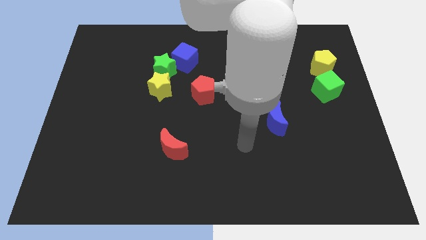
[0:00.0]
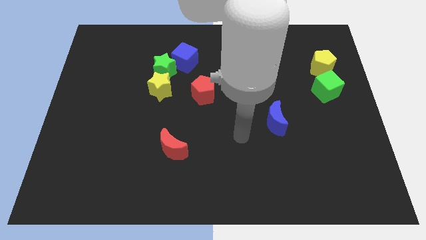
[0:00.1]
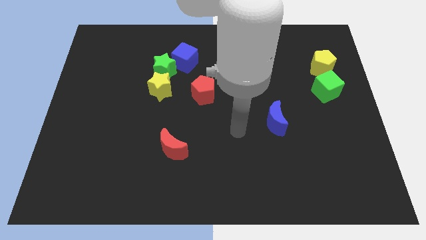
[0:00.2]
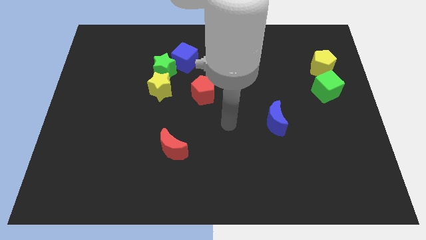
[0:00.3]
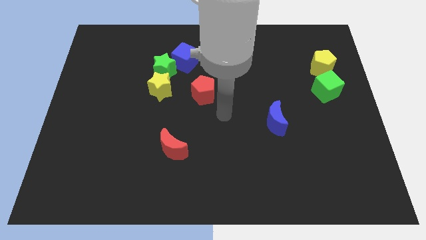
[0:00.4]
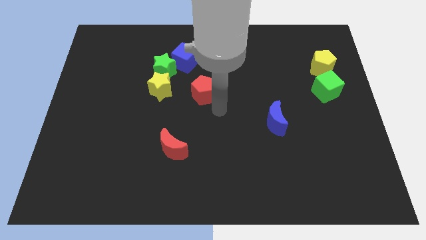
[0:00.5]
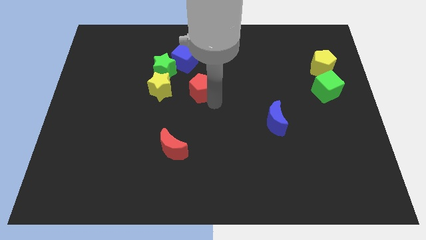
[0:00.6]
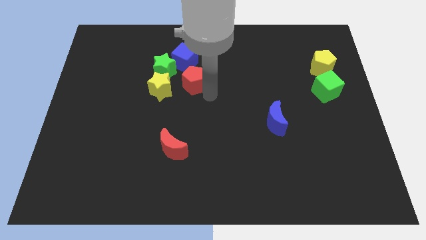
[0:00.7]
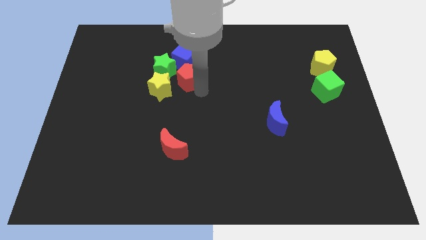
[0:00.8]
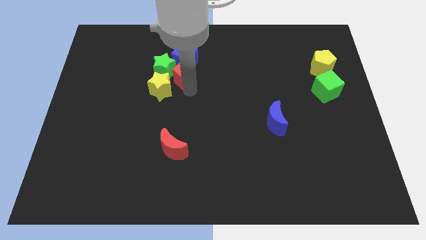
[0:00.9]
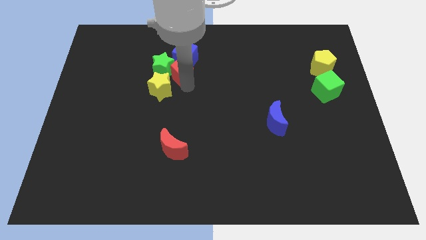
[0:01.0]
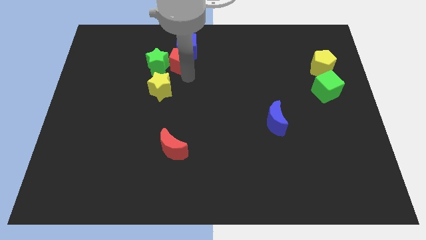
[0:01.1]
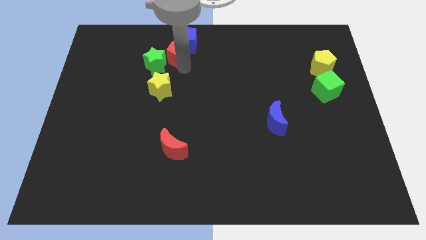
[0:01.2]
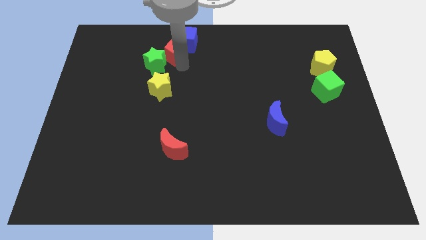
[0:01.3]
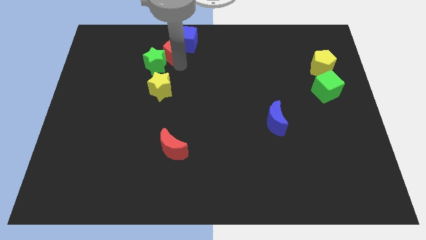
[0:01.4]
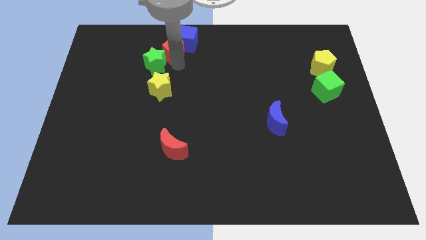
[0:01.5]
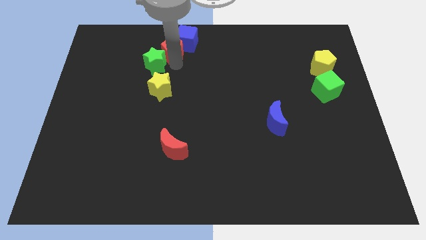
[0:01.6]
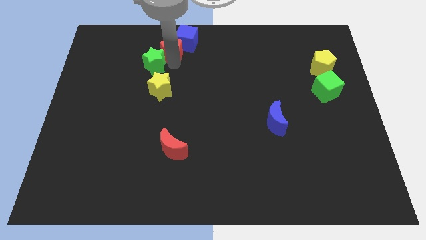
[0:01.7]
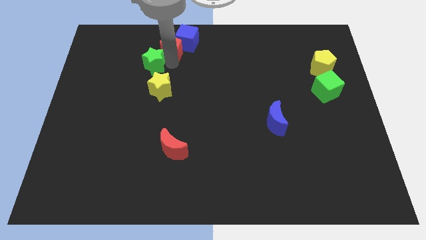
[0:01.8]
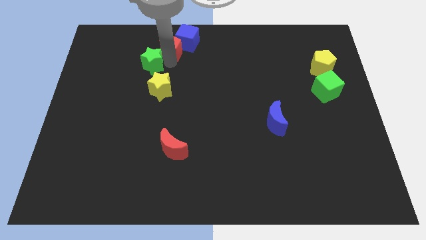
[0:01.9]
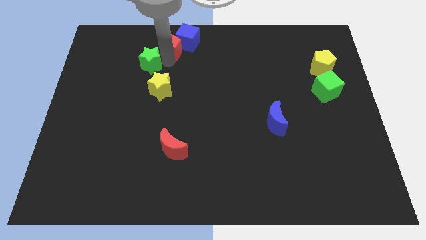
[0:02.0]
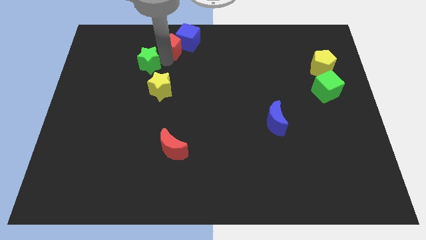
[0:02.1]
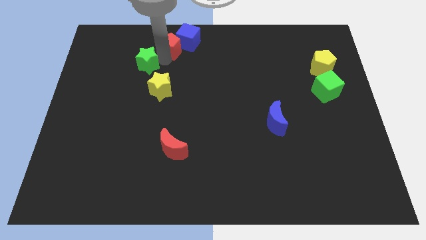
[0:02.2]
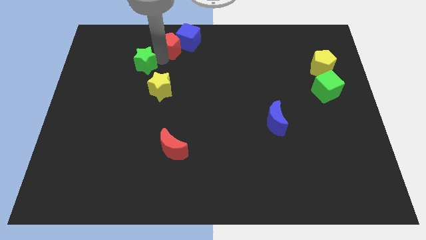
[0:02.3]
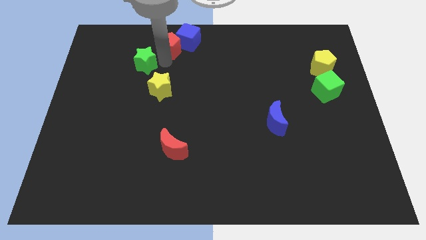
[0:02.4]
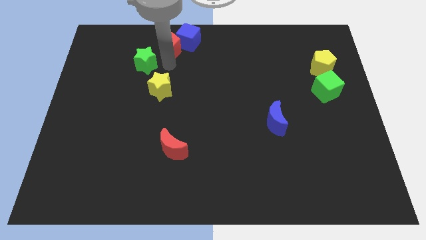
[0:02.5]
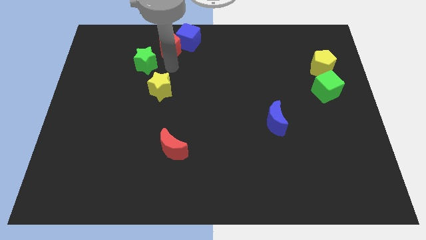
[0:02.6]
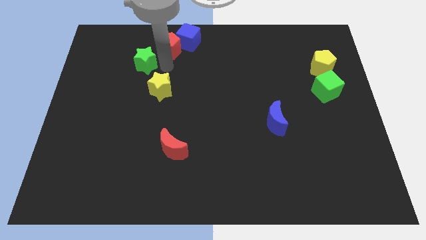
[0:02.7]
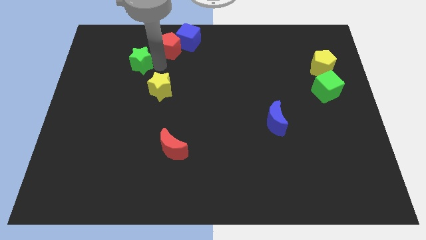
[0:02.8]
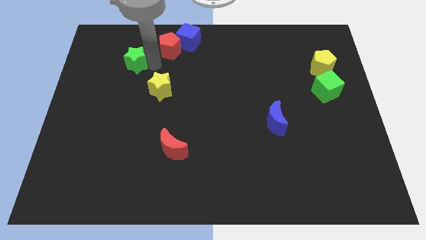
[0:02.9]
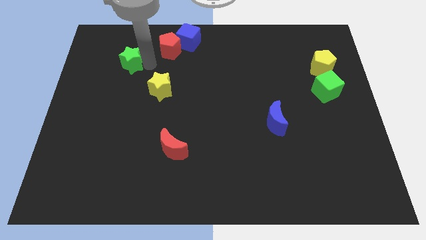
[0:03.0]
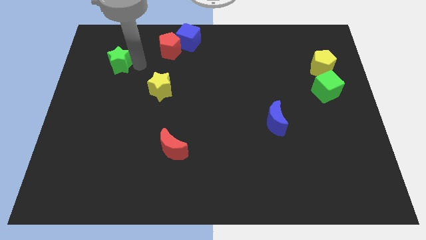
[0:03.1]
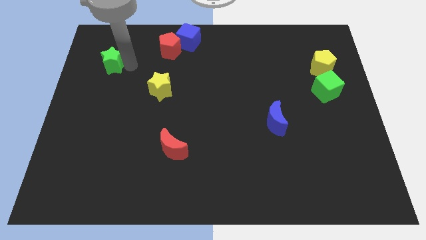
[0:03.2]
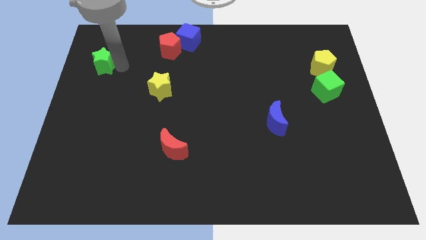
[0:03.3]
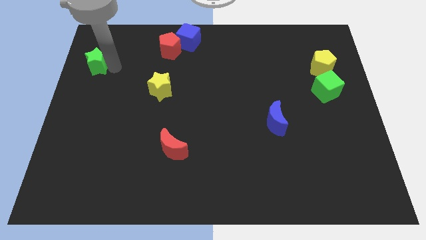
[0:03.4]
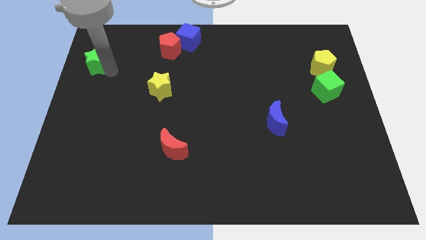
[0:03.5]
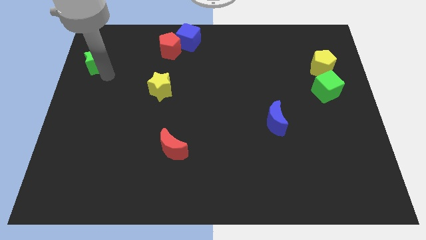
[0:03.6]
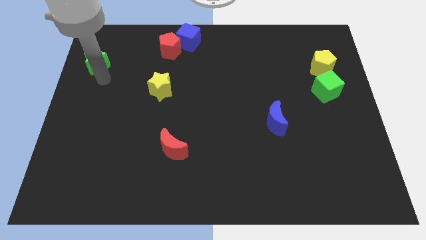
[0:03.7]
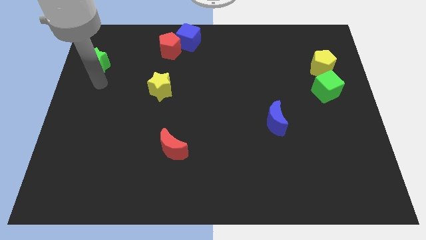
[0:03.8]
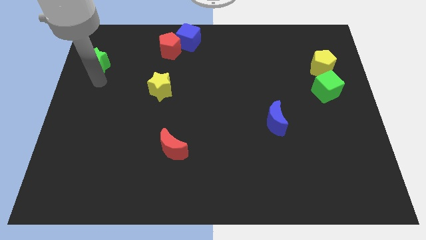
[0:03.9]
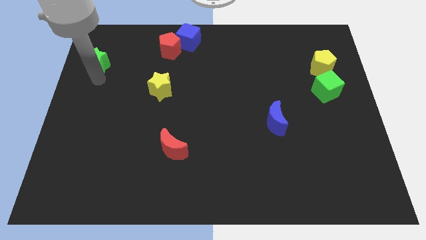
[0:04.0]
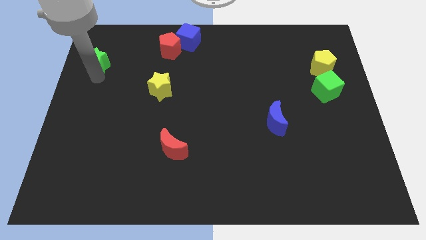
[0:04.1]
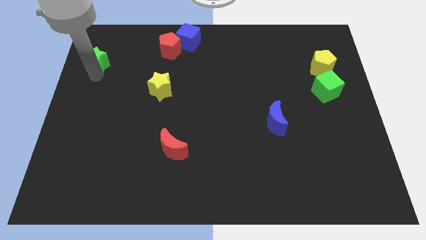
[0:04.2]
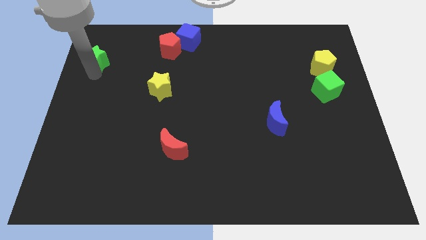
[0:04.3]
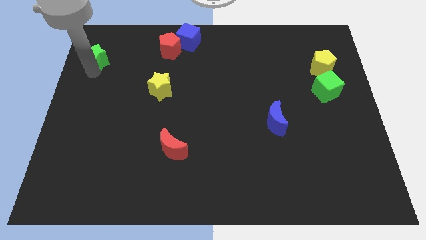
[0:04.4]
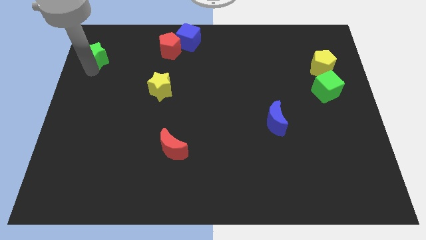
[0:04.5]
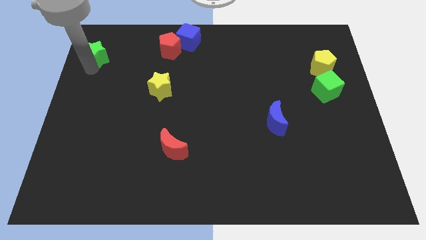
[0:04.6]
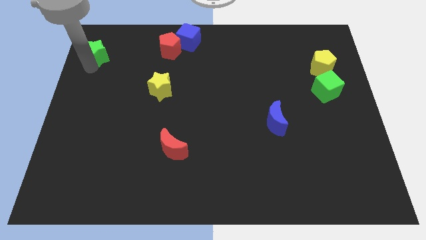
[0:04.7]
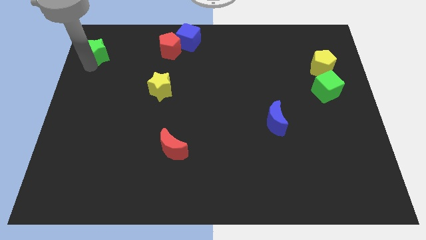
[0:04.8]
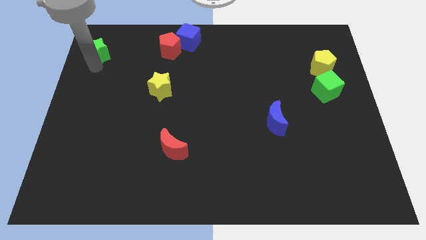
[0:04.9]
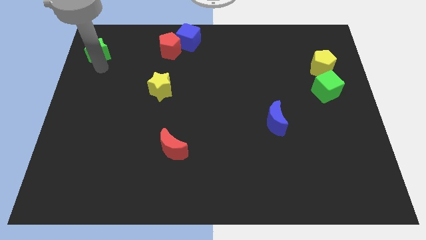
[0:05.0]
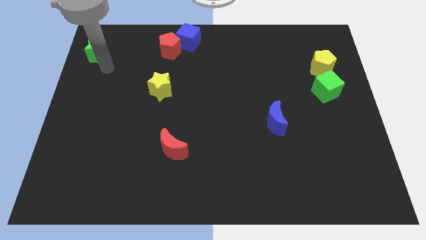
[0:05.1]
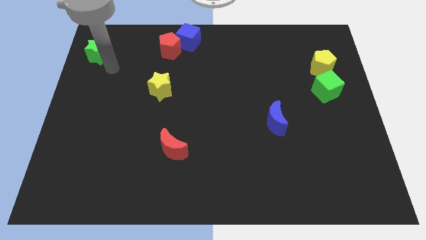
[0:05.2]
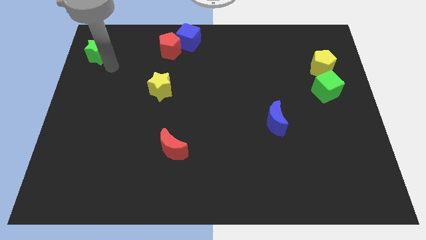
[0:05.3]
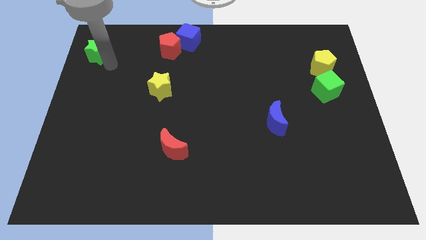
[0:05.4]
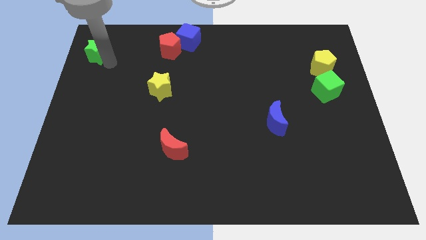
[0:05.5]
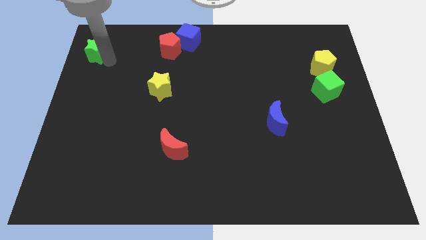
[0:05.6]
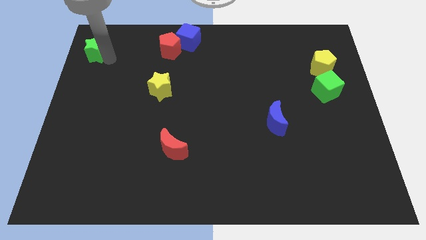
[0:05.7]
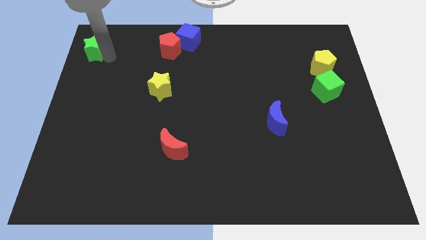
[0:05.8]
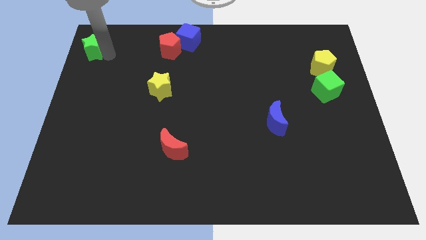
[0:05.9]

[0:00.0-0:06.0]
move the green star to the upper left corner

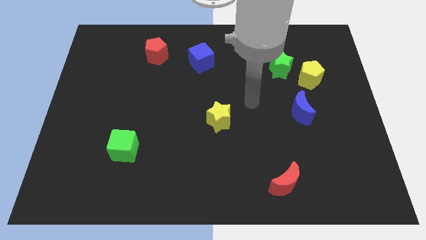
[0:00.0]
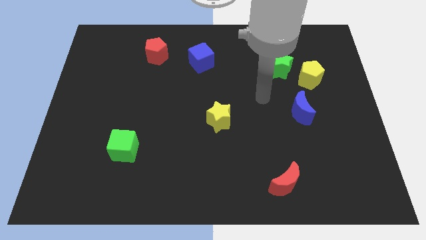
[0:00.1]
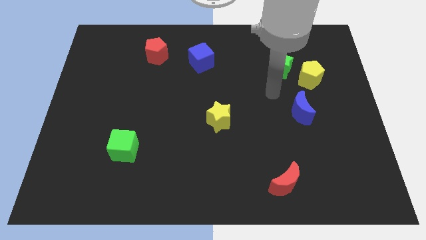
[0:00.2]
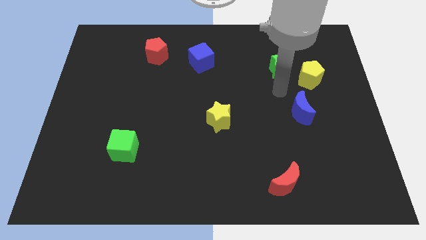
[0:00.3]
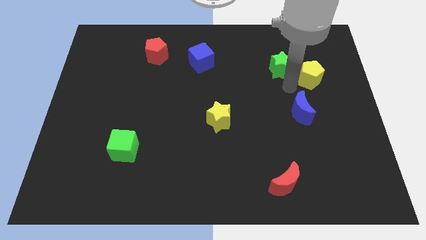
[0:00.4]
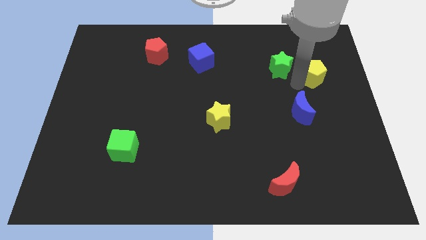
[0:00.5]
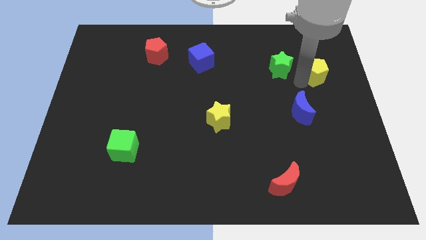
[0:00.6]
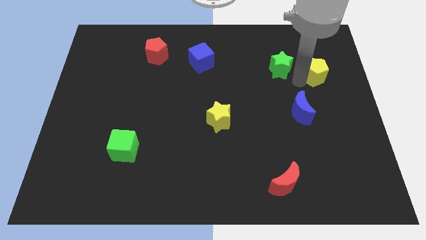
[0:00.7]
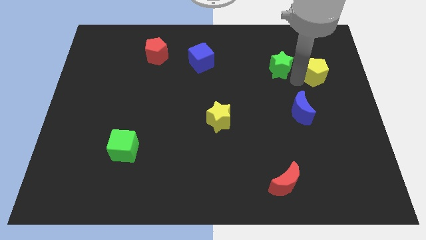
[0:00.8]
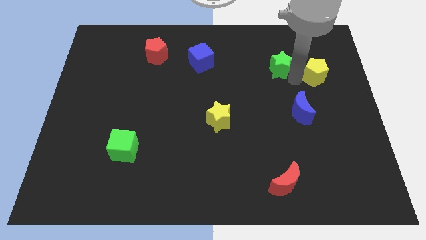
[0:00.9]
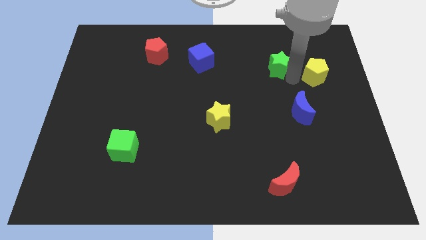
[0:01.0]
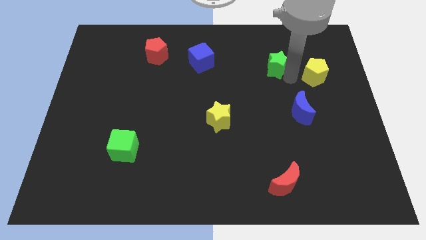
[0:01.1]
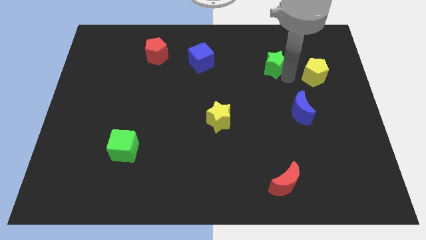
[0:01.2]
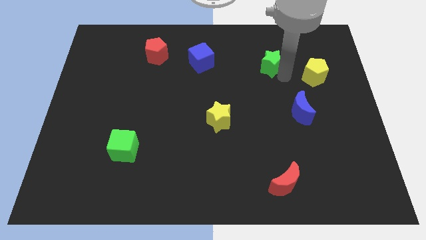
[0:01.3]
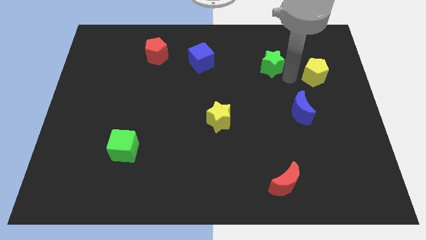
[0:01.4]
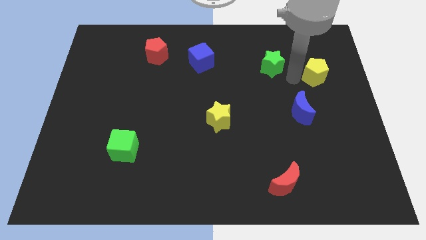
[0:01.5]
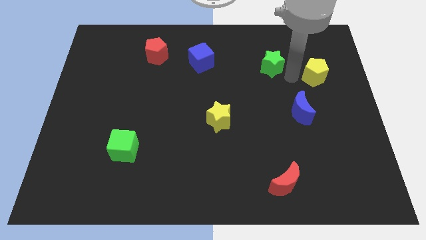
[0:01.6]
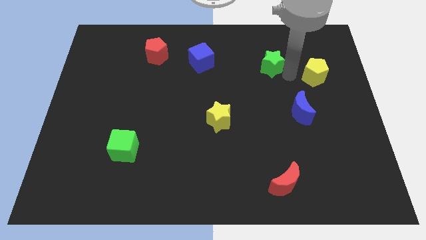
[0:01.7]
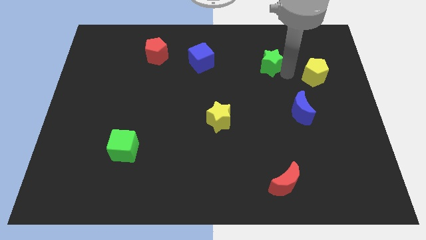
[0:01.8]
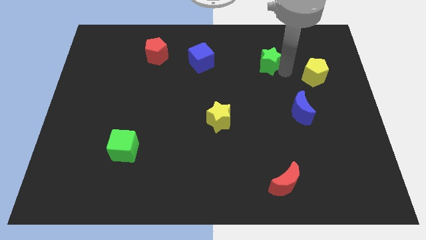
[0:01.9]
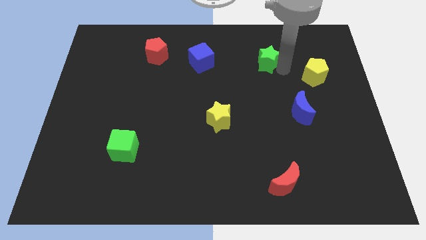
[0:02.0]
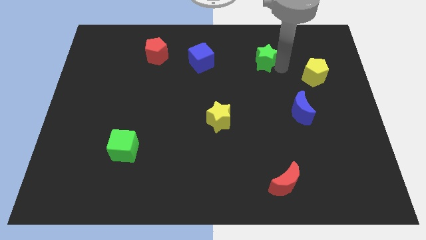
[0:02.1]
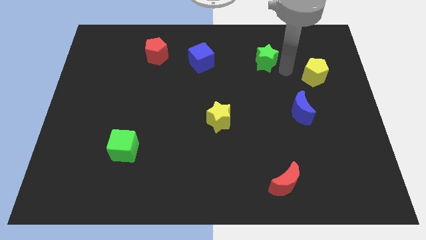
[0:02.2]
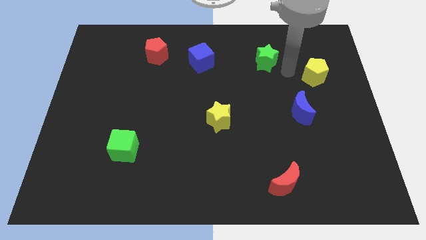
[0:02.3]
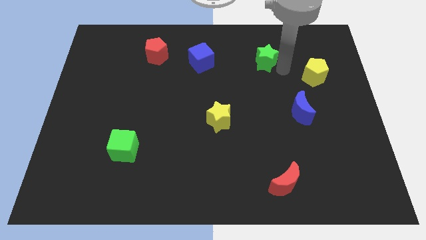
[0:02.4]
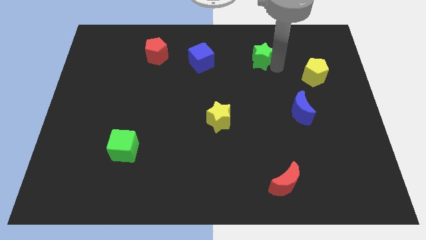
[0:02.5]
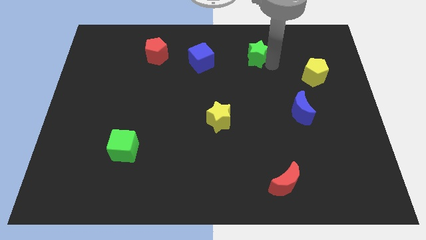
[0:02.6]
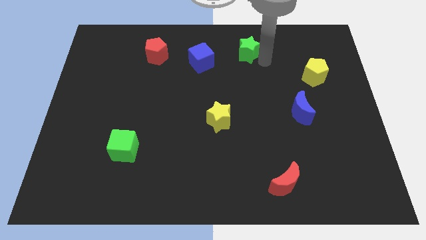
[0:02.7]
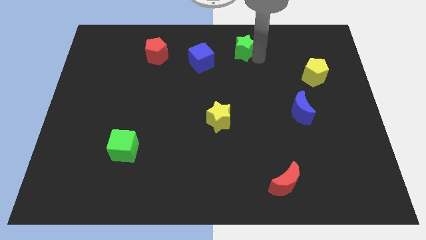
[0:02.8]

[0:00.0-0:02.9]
slide the green star to the top side
